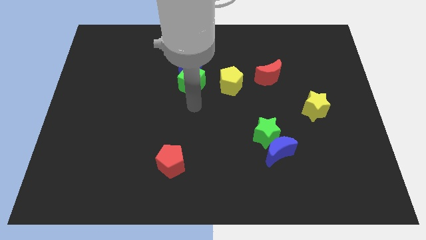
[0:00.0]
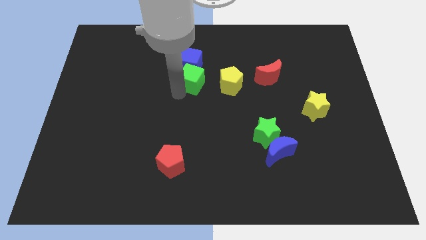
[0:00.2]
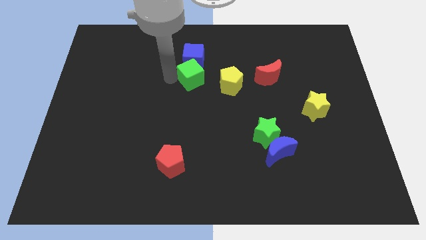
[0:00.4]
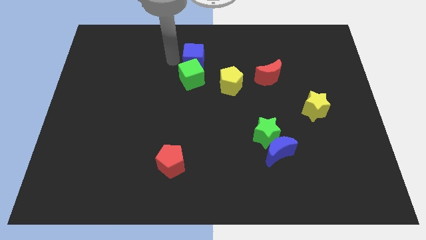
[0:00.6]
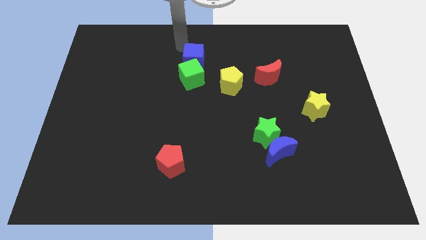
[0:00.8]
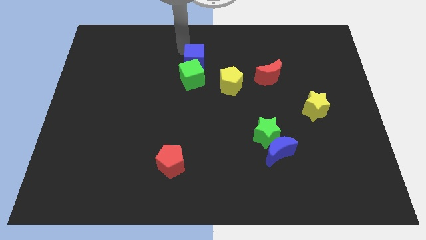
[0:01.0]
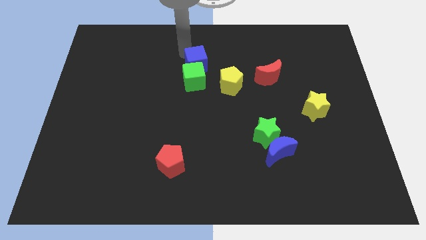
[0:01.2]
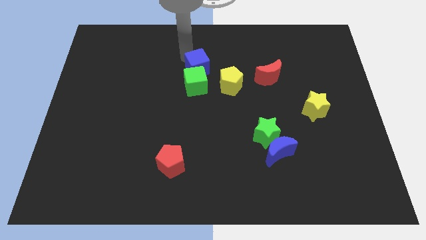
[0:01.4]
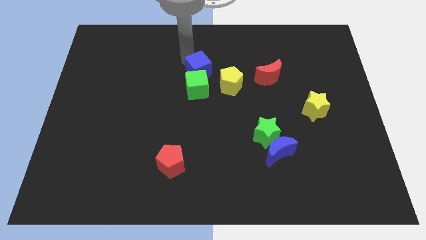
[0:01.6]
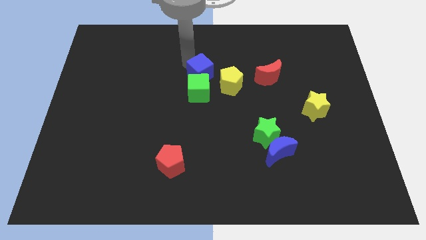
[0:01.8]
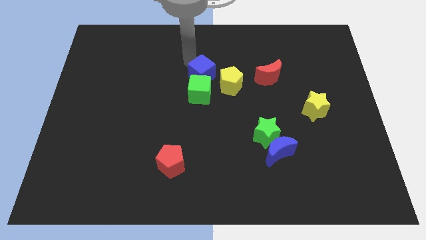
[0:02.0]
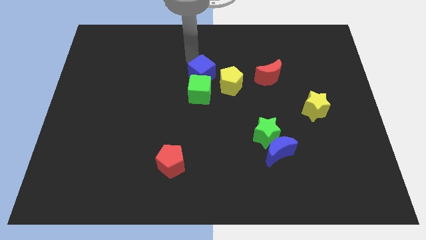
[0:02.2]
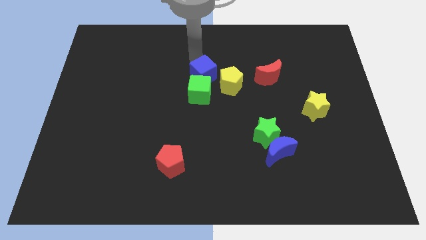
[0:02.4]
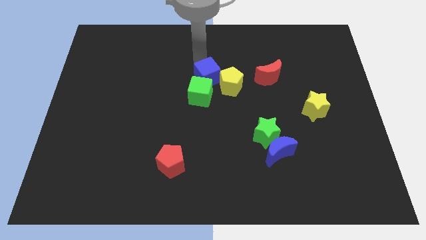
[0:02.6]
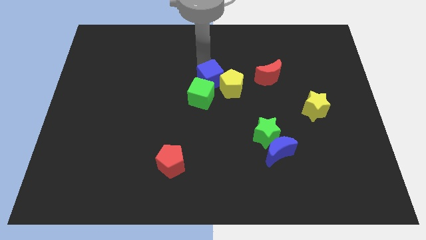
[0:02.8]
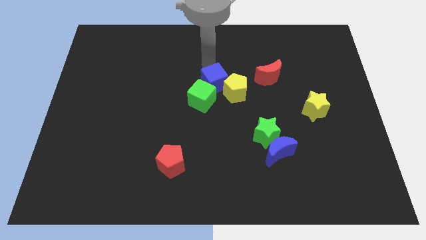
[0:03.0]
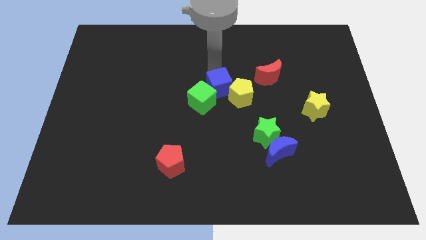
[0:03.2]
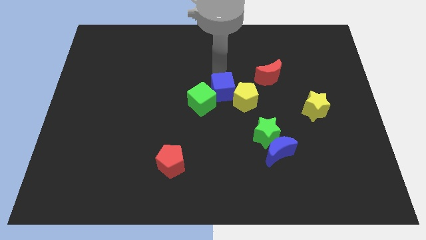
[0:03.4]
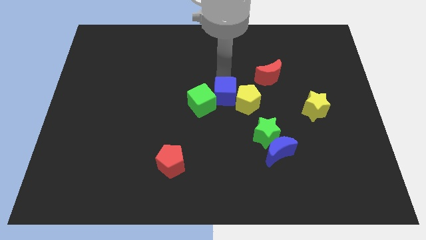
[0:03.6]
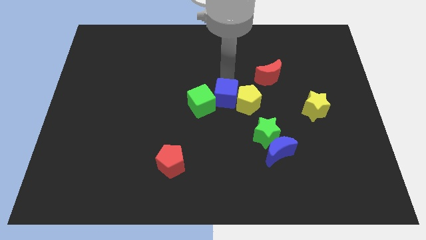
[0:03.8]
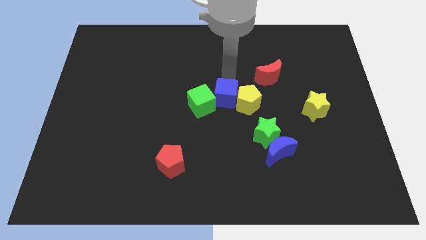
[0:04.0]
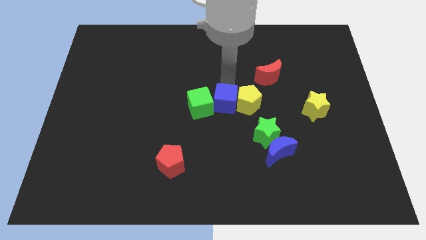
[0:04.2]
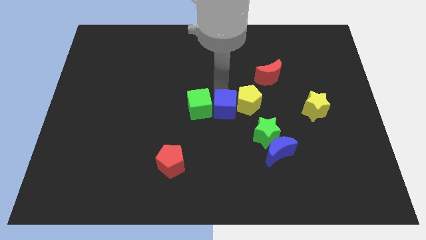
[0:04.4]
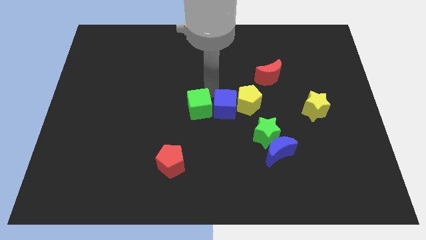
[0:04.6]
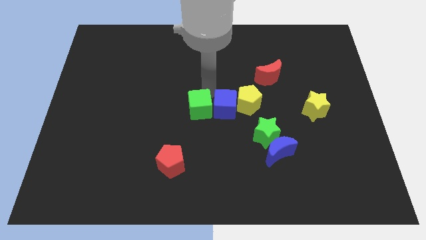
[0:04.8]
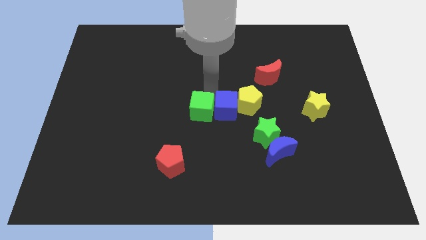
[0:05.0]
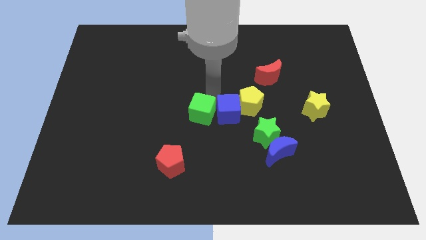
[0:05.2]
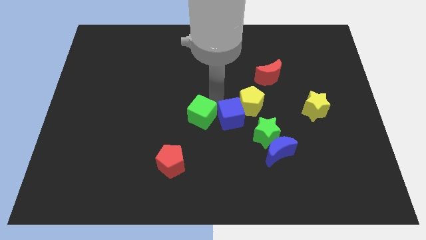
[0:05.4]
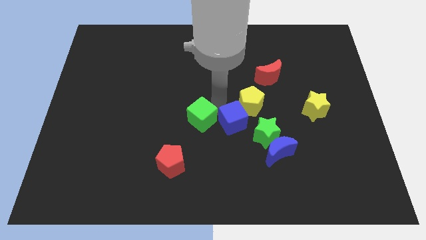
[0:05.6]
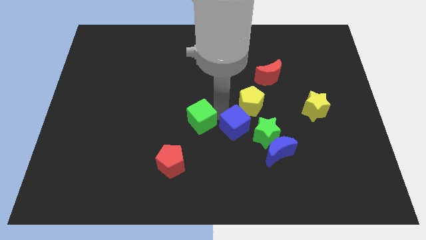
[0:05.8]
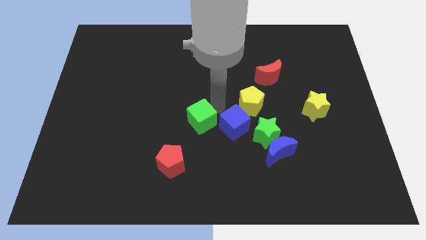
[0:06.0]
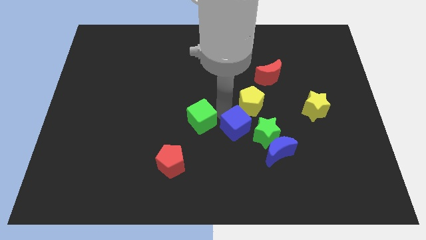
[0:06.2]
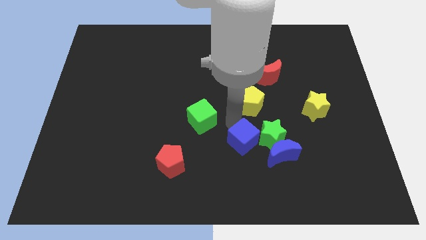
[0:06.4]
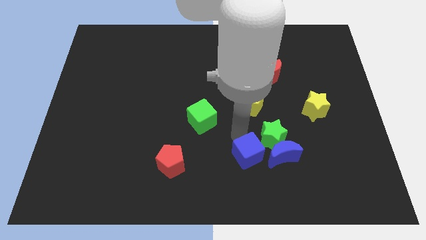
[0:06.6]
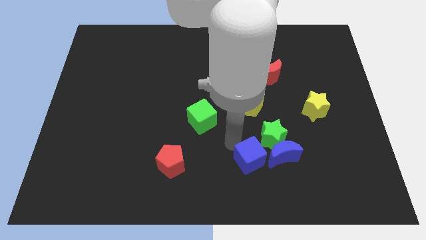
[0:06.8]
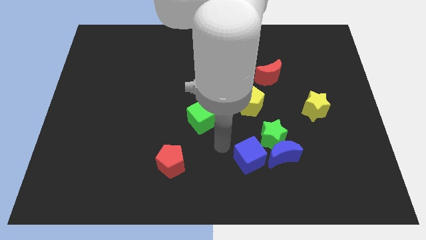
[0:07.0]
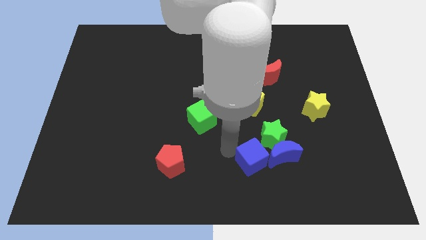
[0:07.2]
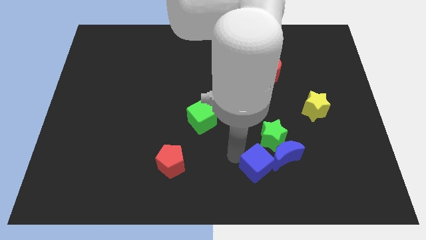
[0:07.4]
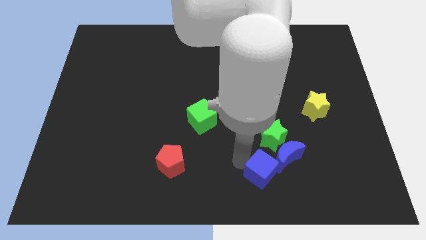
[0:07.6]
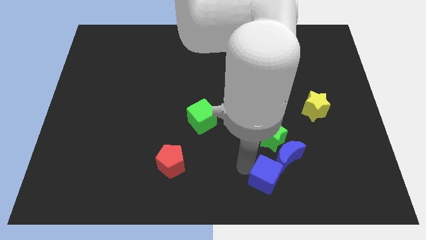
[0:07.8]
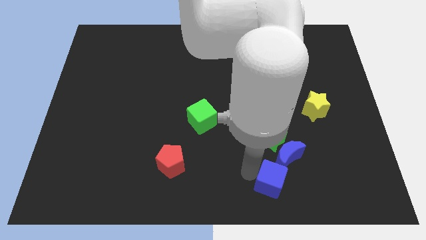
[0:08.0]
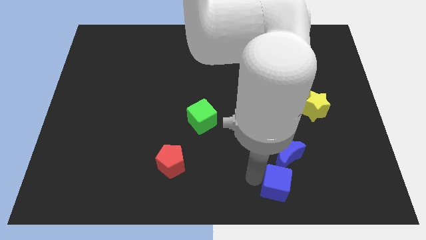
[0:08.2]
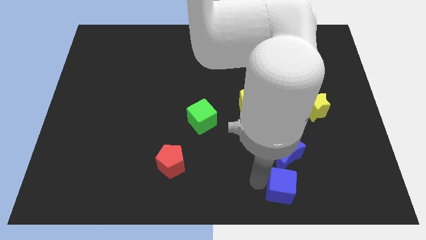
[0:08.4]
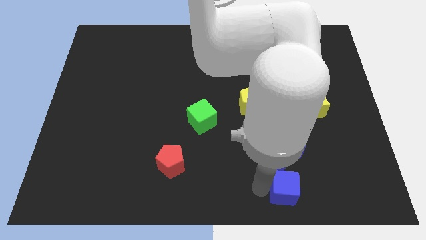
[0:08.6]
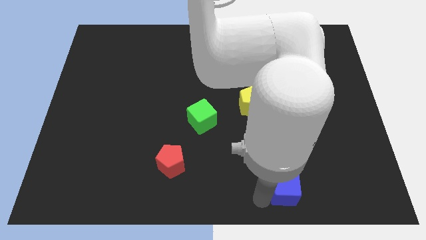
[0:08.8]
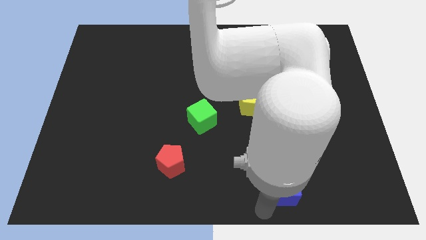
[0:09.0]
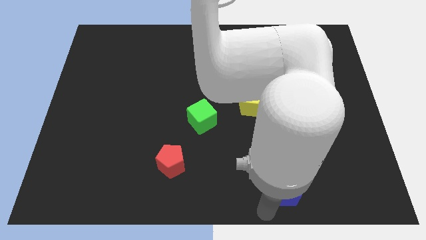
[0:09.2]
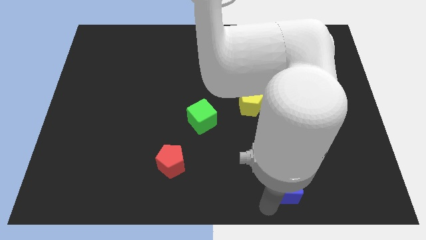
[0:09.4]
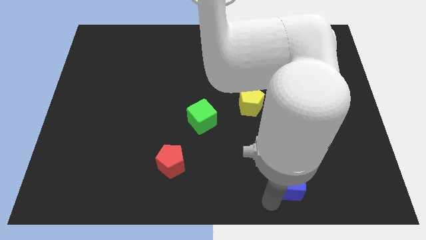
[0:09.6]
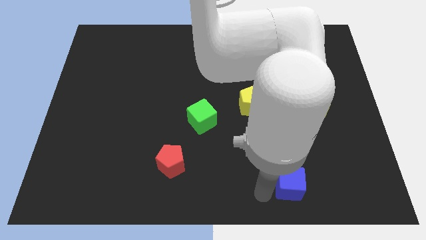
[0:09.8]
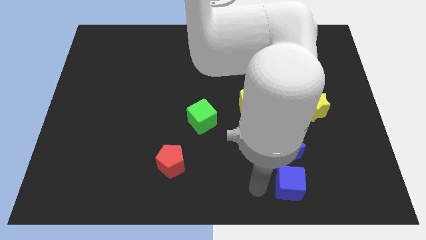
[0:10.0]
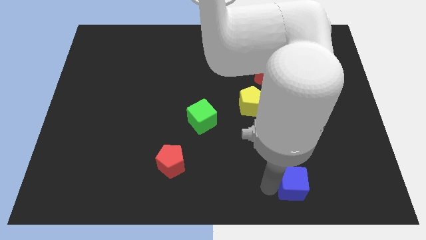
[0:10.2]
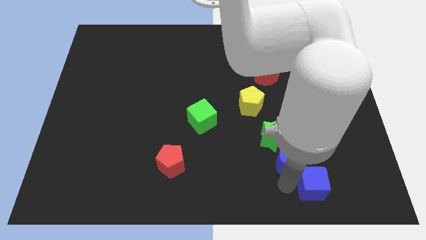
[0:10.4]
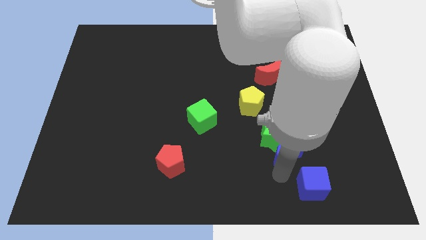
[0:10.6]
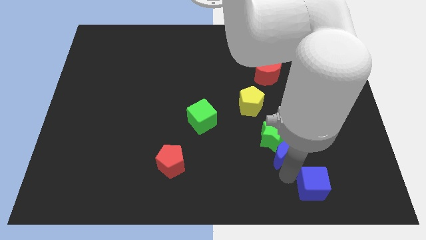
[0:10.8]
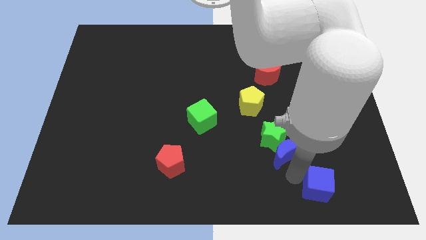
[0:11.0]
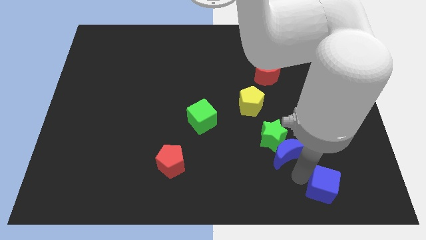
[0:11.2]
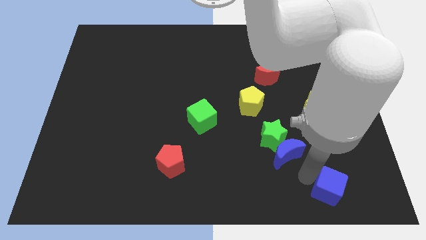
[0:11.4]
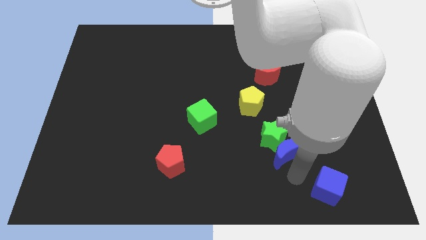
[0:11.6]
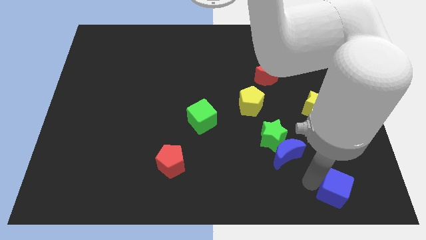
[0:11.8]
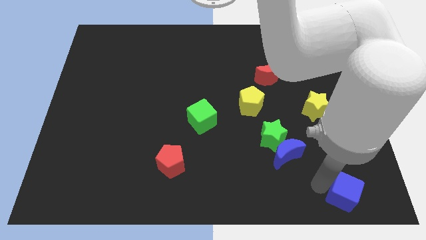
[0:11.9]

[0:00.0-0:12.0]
move the blue cube to the bottom right of the board
